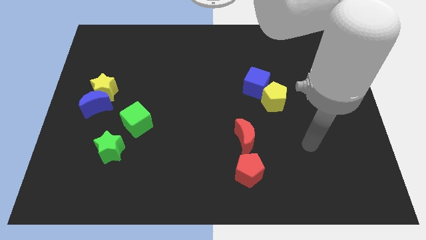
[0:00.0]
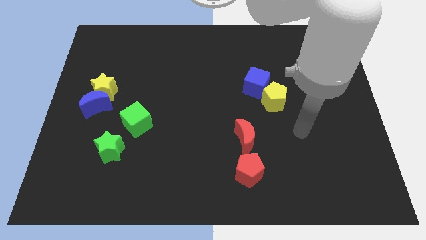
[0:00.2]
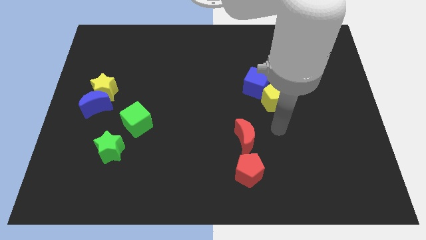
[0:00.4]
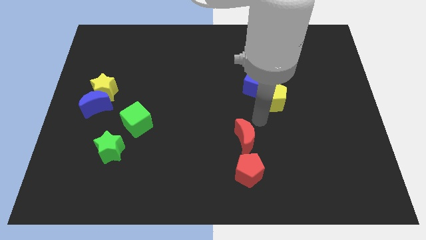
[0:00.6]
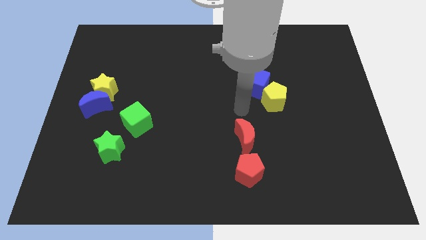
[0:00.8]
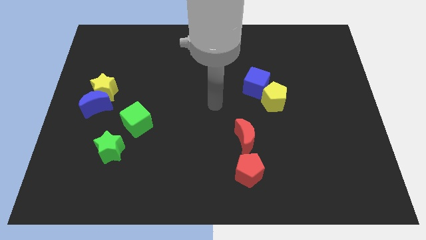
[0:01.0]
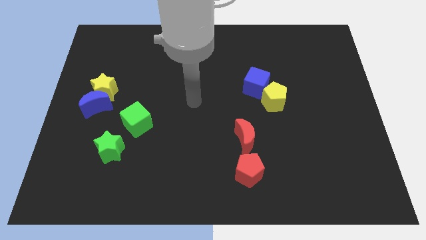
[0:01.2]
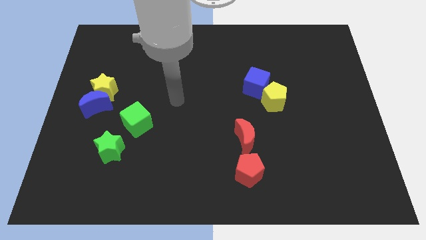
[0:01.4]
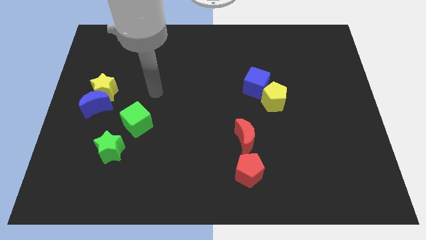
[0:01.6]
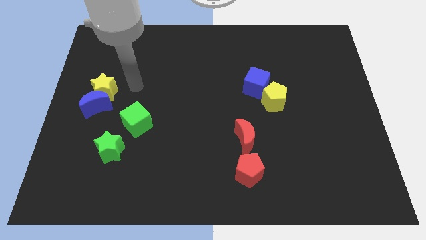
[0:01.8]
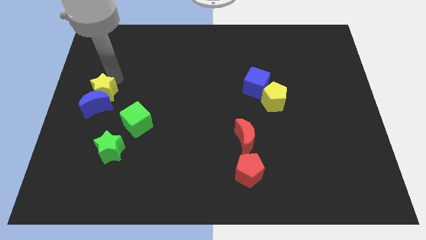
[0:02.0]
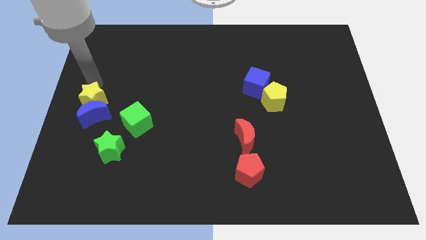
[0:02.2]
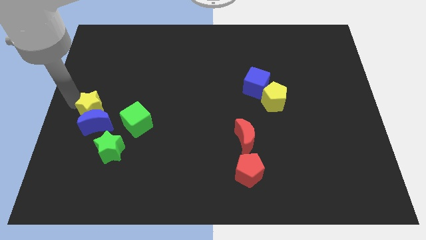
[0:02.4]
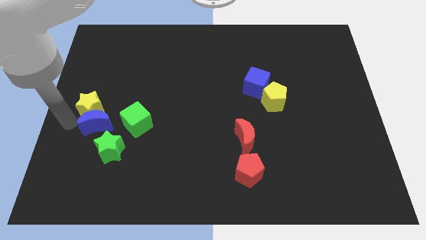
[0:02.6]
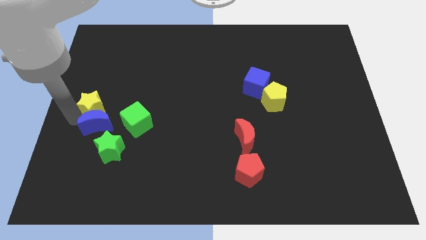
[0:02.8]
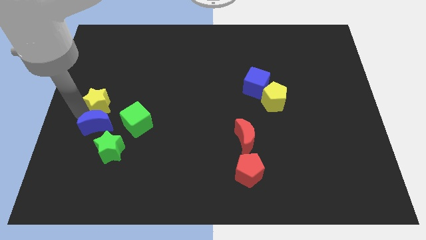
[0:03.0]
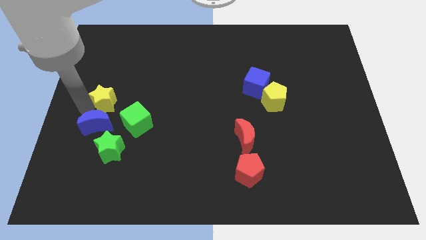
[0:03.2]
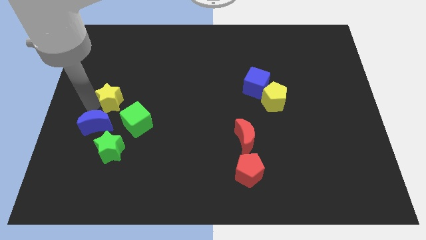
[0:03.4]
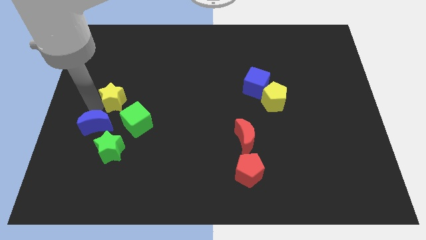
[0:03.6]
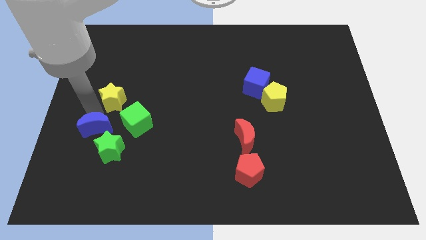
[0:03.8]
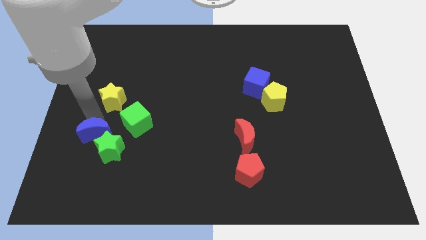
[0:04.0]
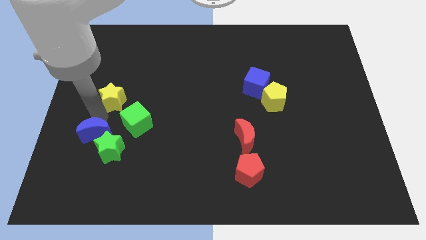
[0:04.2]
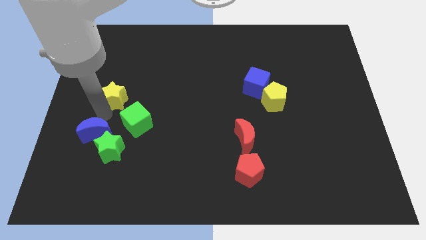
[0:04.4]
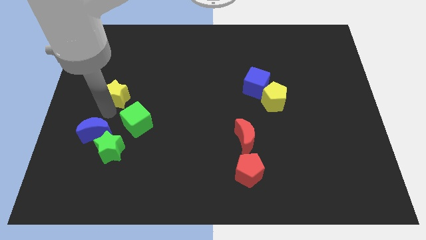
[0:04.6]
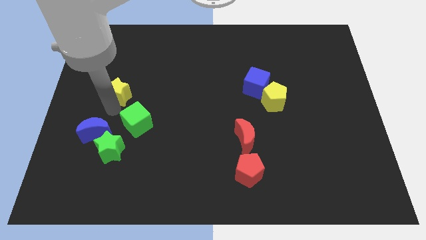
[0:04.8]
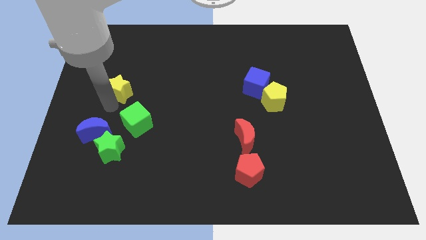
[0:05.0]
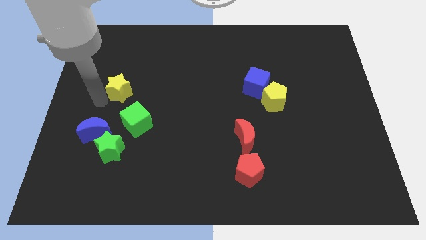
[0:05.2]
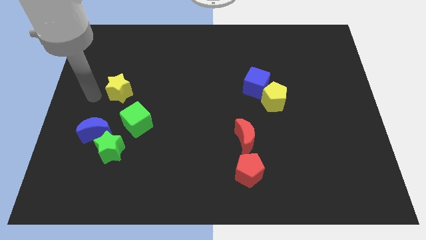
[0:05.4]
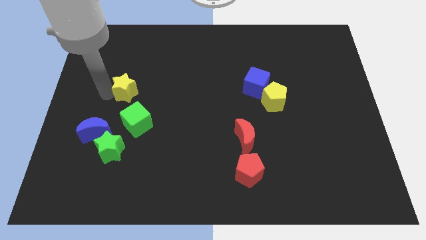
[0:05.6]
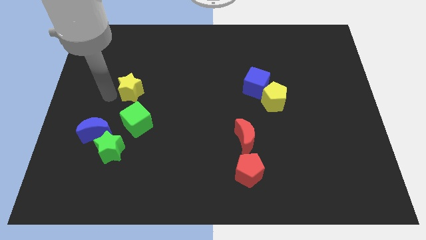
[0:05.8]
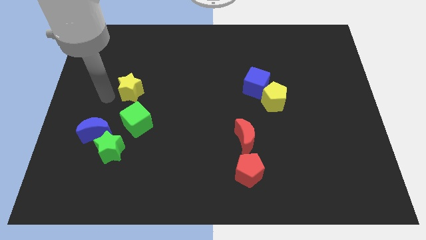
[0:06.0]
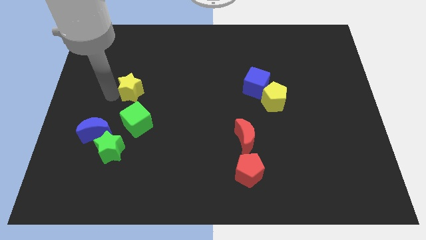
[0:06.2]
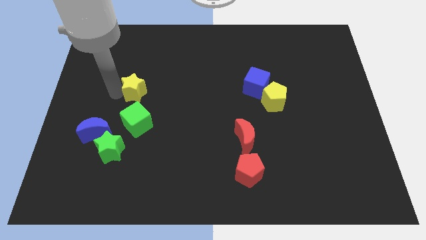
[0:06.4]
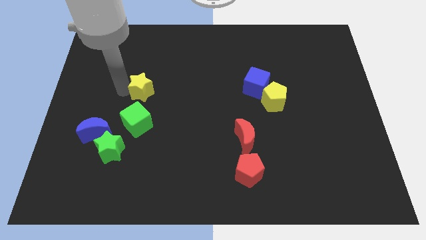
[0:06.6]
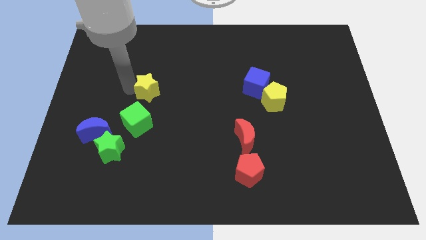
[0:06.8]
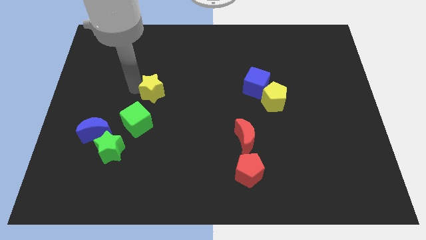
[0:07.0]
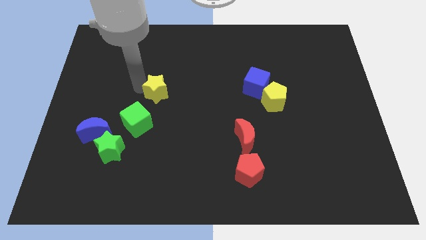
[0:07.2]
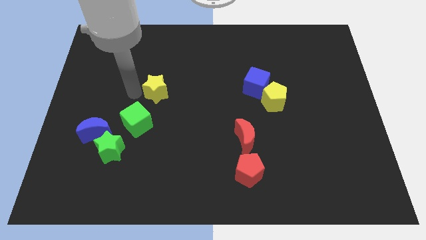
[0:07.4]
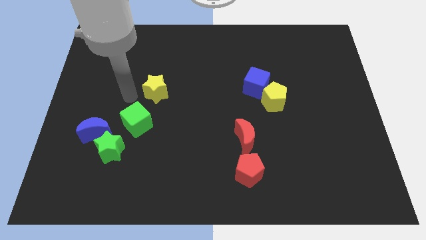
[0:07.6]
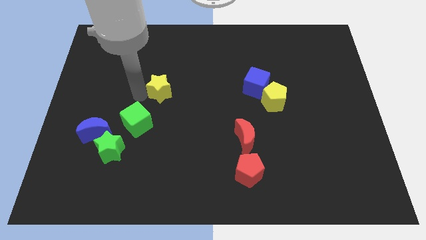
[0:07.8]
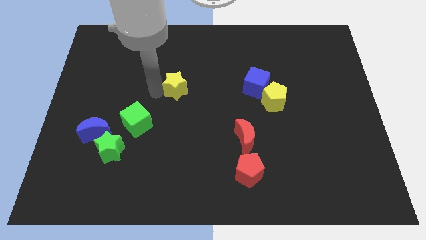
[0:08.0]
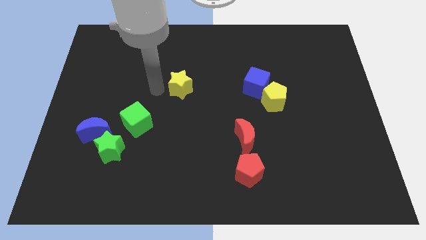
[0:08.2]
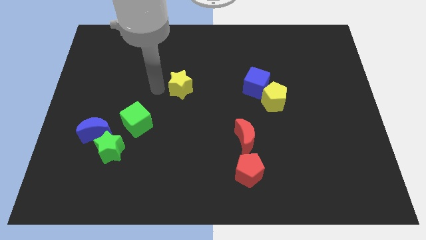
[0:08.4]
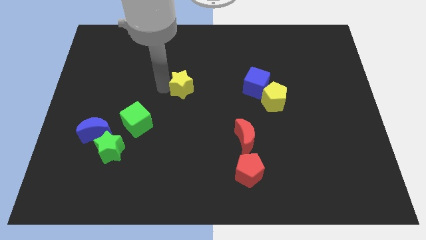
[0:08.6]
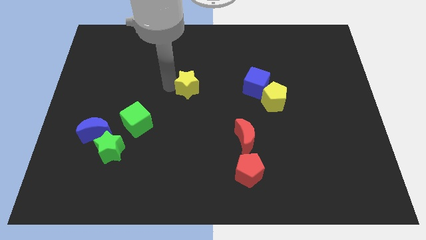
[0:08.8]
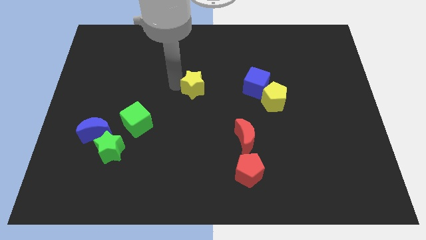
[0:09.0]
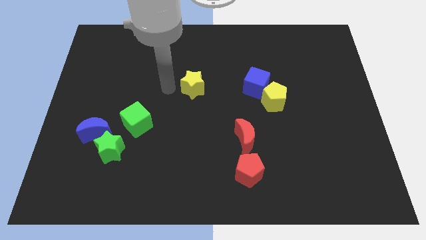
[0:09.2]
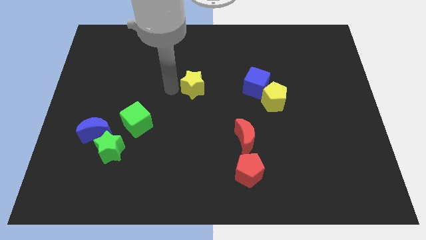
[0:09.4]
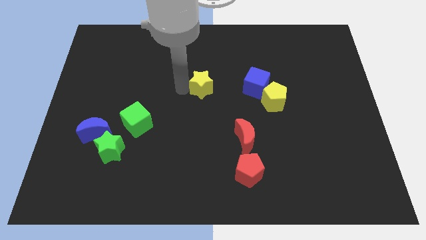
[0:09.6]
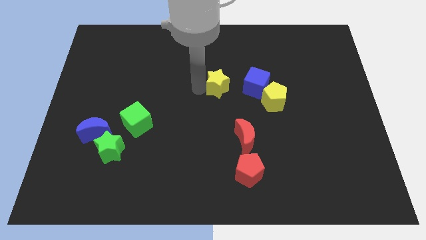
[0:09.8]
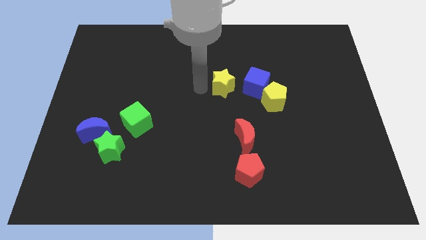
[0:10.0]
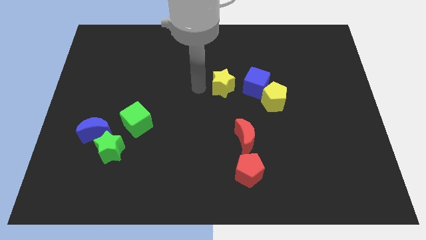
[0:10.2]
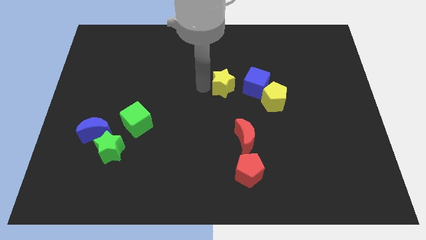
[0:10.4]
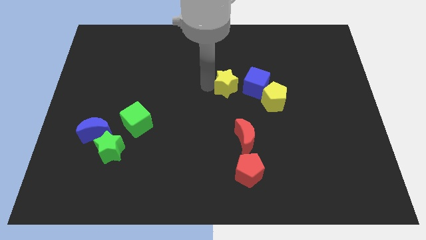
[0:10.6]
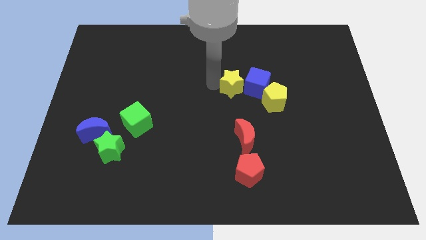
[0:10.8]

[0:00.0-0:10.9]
slide the yellow star next to the blue cube

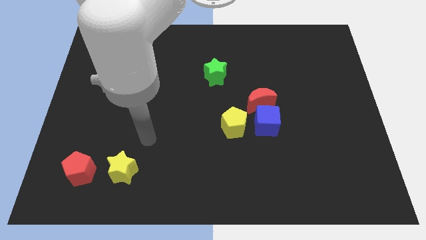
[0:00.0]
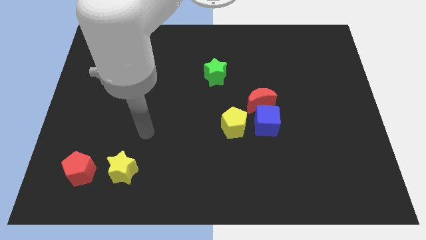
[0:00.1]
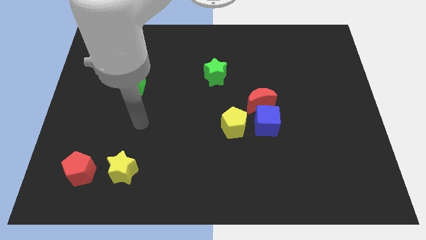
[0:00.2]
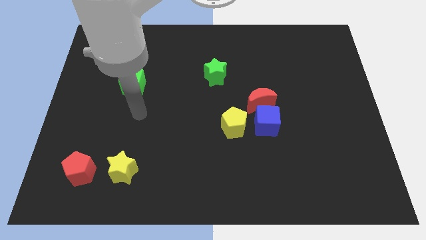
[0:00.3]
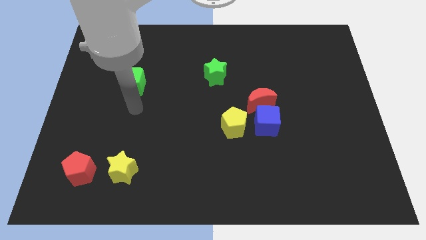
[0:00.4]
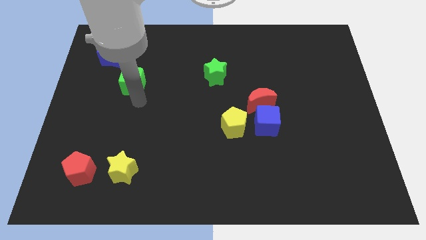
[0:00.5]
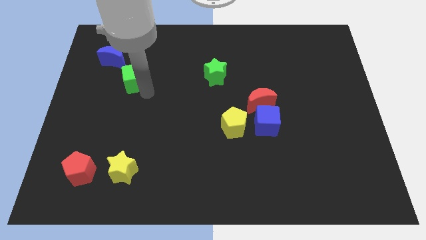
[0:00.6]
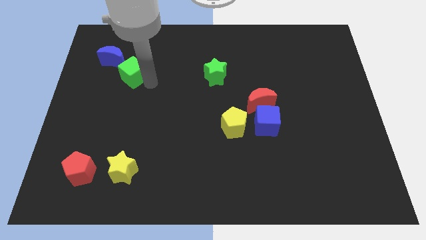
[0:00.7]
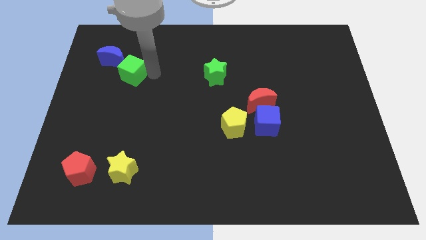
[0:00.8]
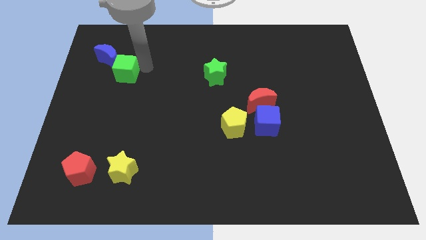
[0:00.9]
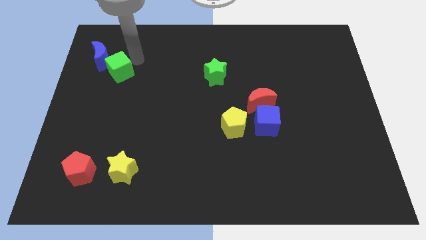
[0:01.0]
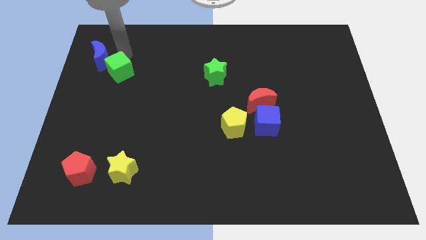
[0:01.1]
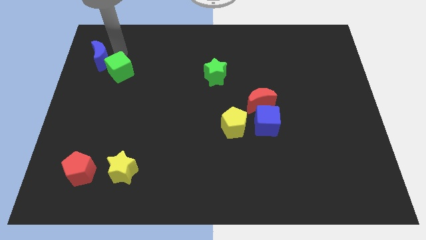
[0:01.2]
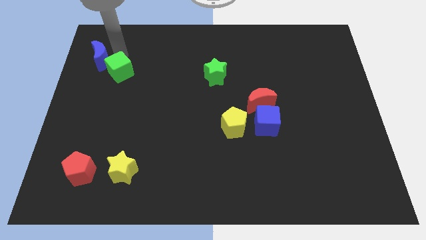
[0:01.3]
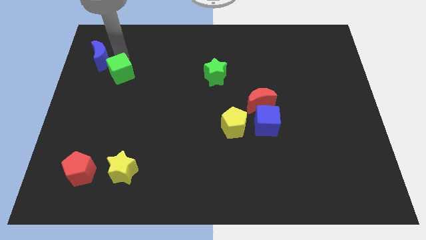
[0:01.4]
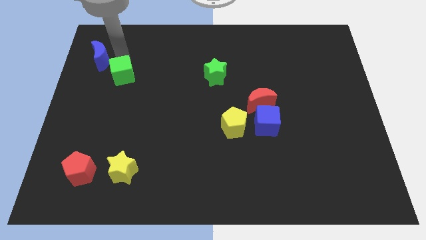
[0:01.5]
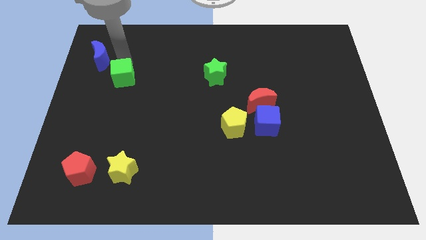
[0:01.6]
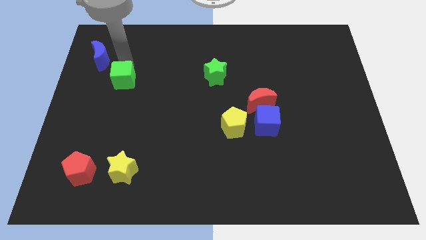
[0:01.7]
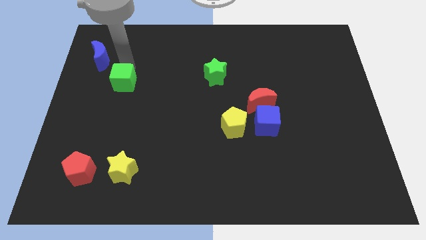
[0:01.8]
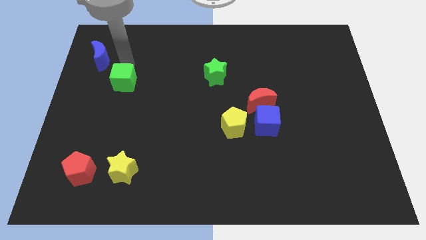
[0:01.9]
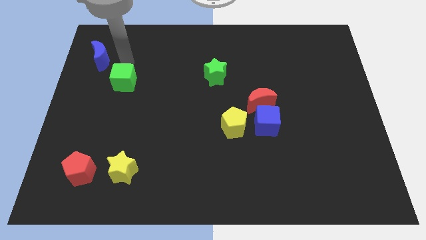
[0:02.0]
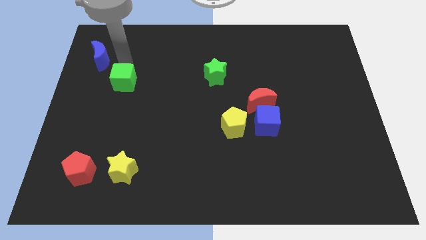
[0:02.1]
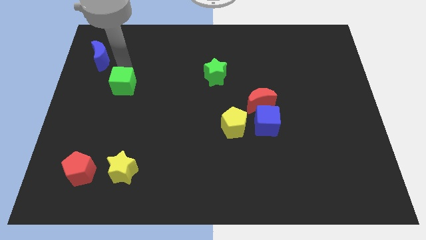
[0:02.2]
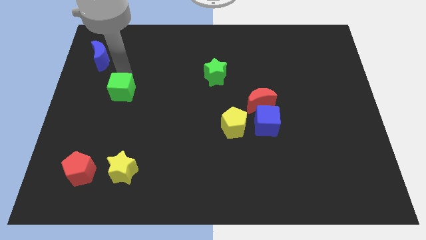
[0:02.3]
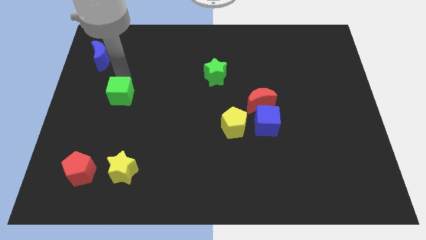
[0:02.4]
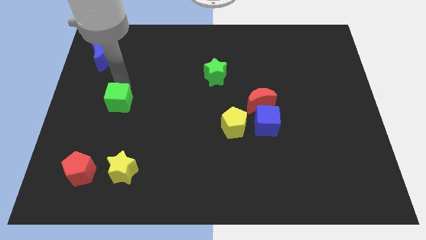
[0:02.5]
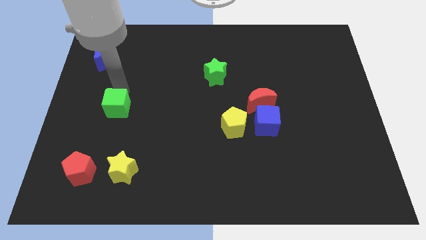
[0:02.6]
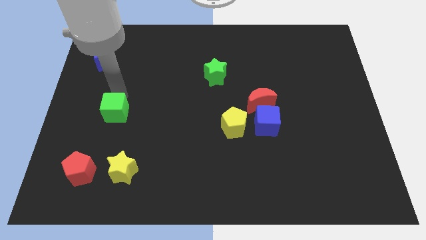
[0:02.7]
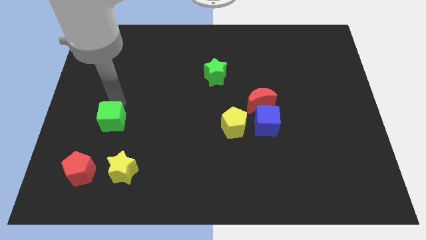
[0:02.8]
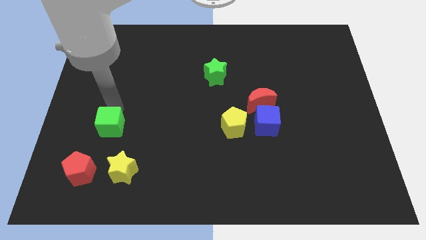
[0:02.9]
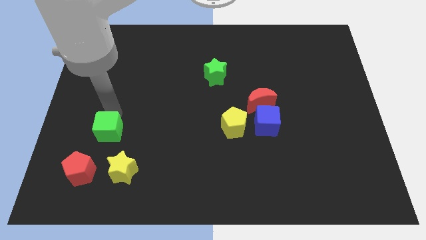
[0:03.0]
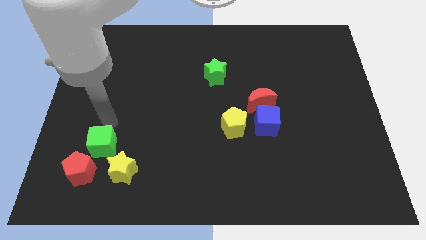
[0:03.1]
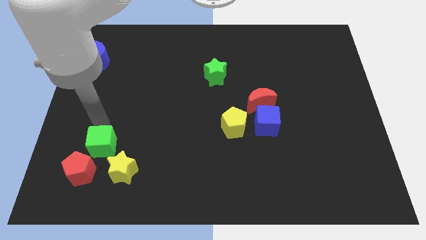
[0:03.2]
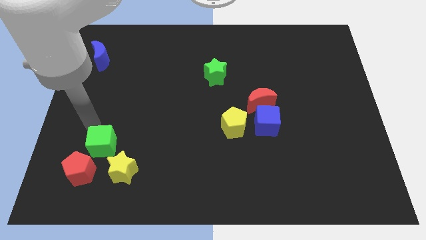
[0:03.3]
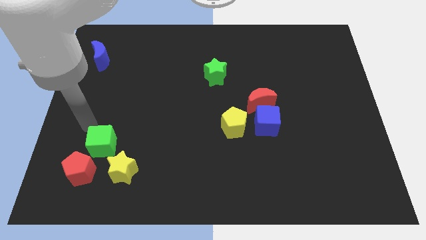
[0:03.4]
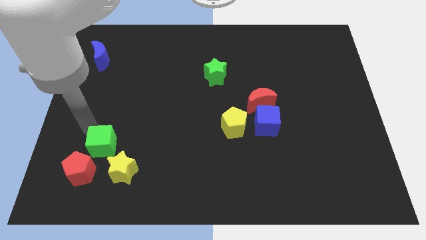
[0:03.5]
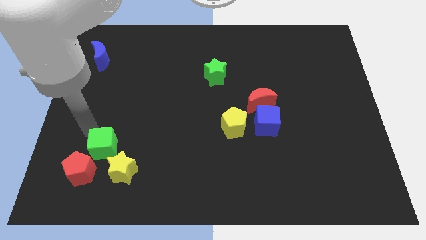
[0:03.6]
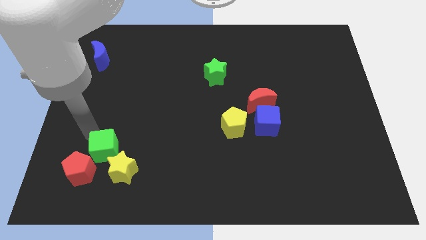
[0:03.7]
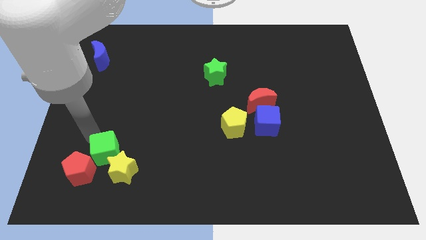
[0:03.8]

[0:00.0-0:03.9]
move the green cube close to the yellow star
